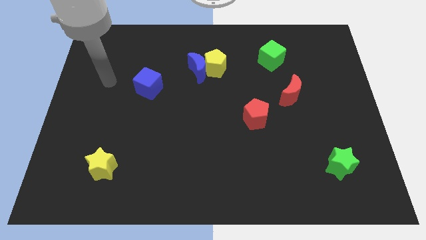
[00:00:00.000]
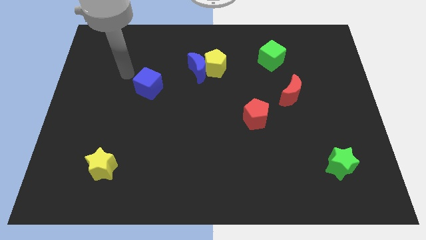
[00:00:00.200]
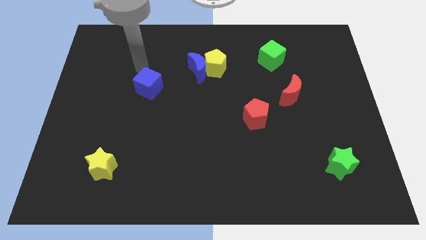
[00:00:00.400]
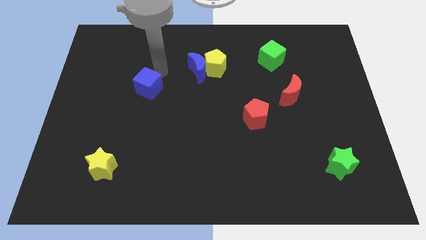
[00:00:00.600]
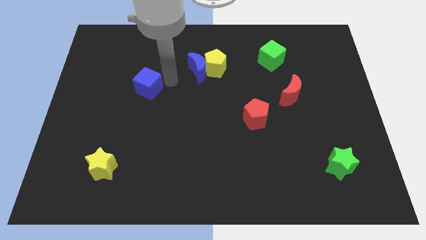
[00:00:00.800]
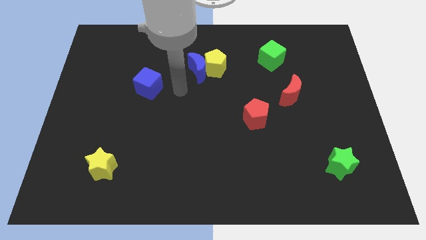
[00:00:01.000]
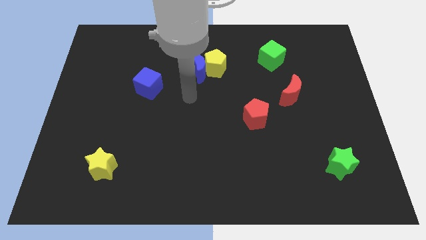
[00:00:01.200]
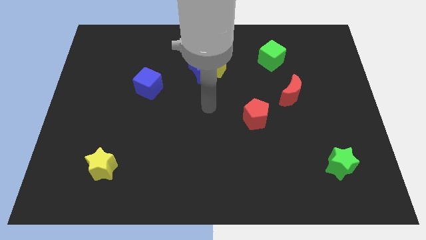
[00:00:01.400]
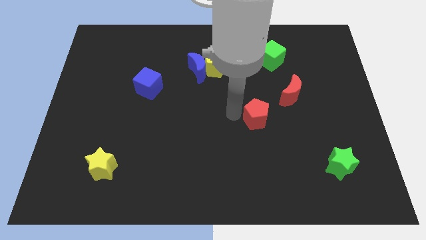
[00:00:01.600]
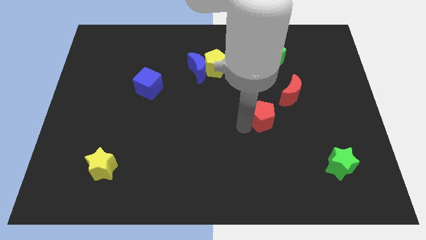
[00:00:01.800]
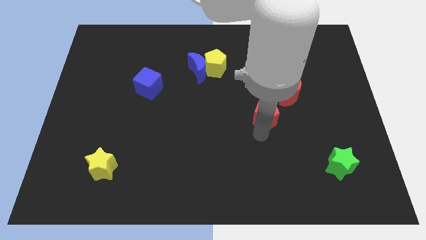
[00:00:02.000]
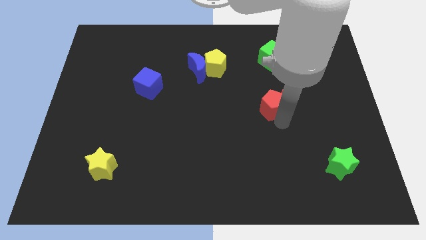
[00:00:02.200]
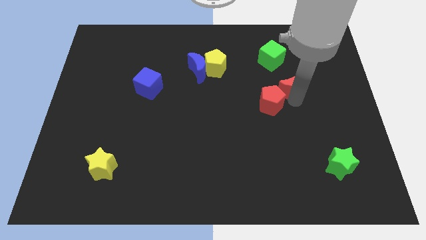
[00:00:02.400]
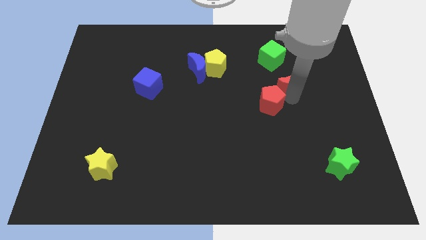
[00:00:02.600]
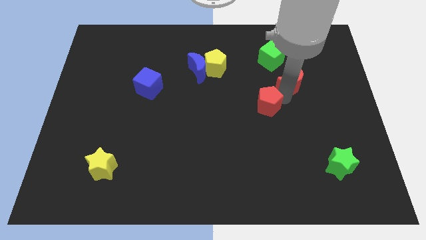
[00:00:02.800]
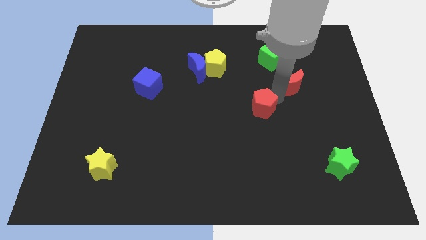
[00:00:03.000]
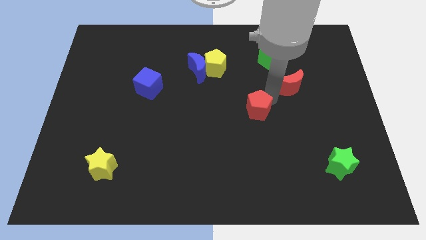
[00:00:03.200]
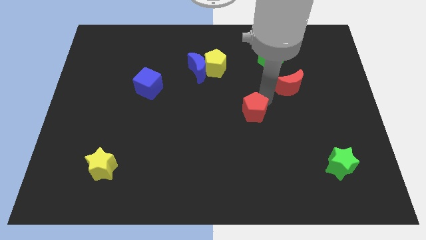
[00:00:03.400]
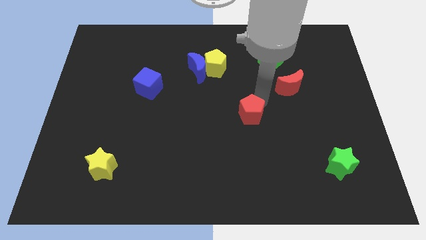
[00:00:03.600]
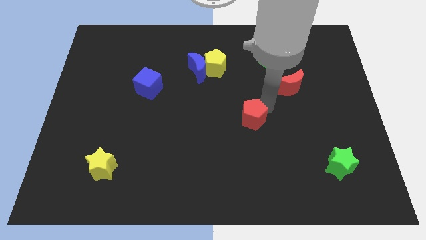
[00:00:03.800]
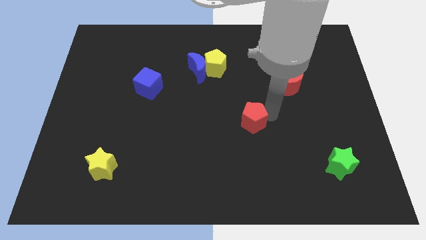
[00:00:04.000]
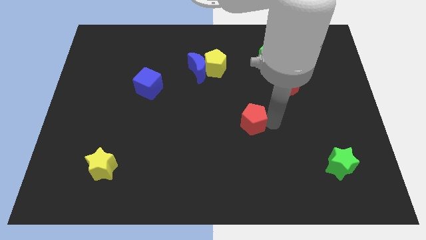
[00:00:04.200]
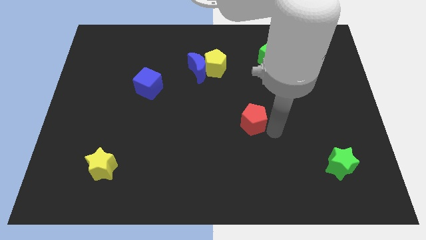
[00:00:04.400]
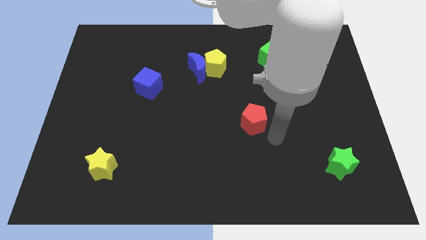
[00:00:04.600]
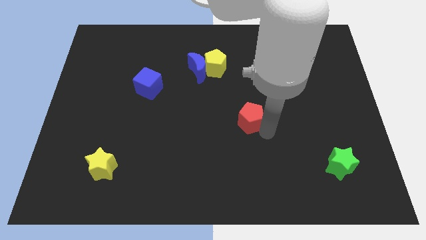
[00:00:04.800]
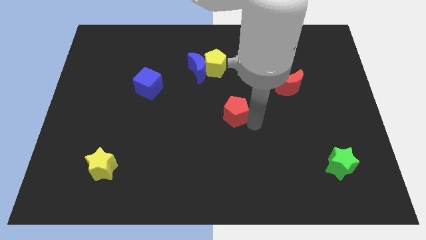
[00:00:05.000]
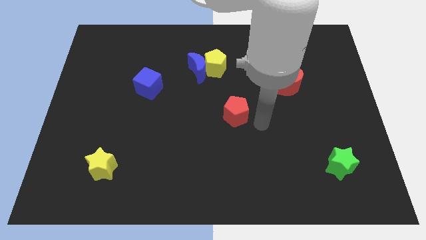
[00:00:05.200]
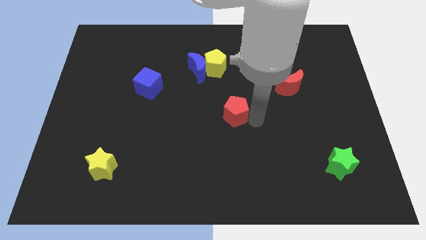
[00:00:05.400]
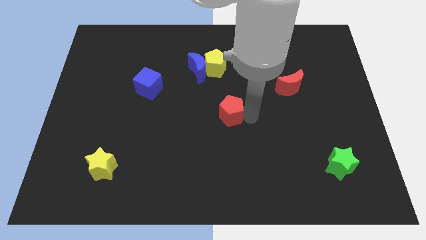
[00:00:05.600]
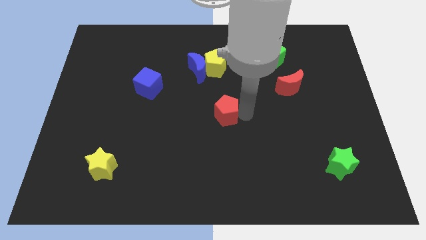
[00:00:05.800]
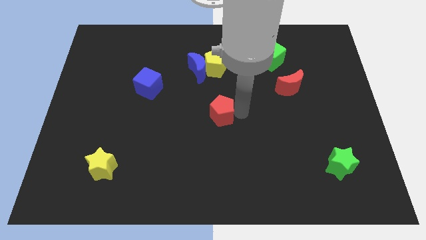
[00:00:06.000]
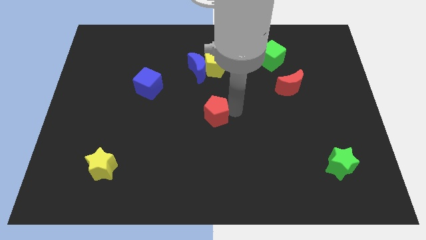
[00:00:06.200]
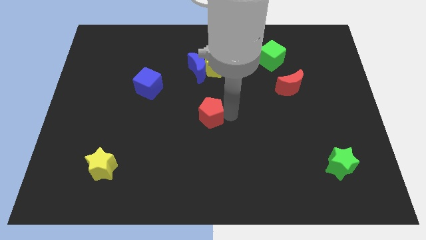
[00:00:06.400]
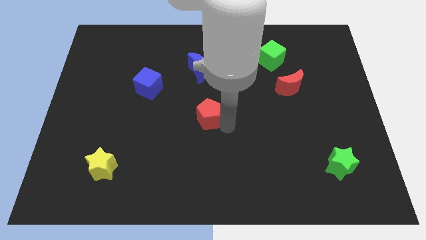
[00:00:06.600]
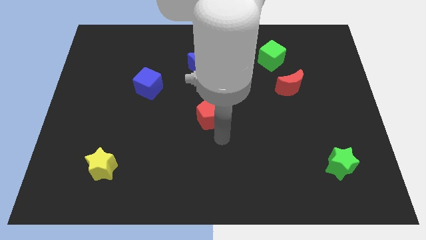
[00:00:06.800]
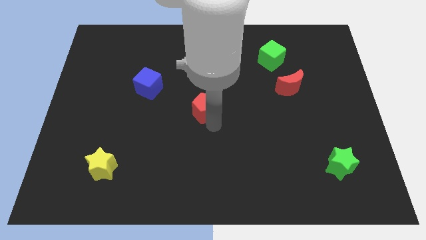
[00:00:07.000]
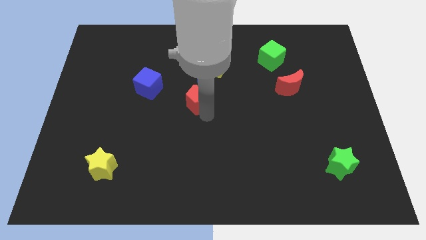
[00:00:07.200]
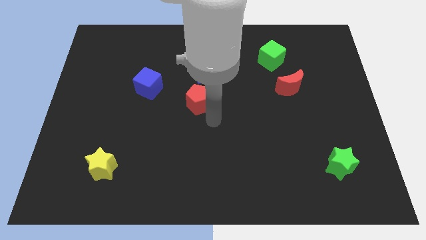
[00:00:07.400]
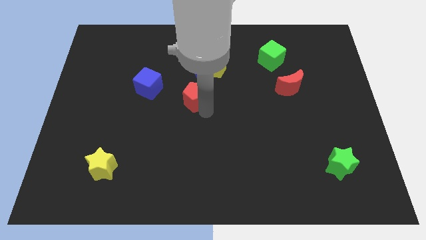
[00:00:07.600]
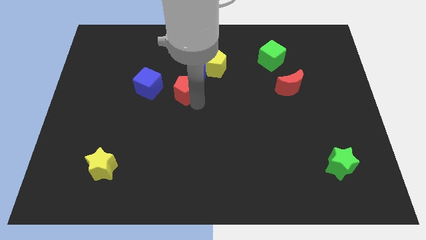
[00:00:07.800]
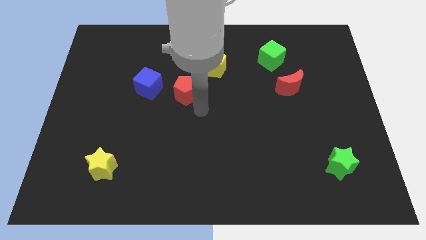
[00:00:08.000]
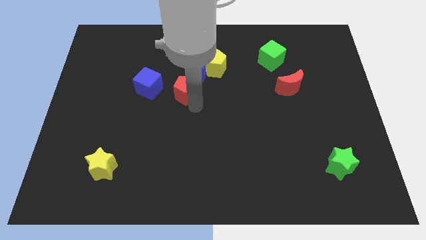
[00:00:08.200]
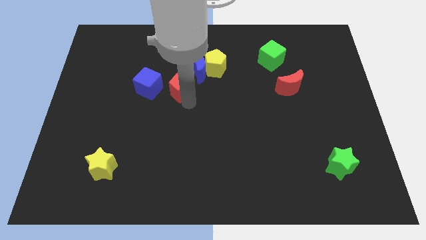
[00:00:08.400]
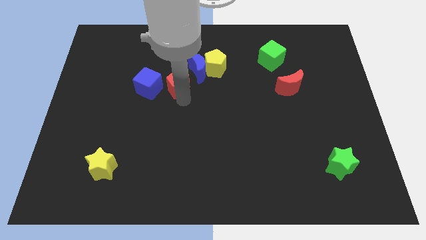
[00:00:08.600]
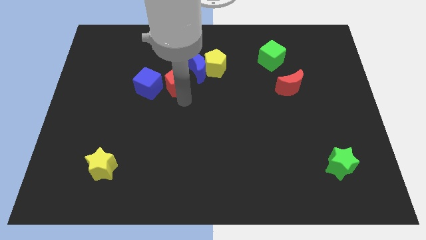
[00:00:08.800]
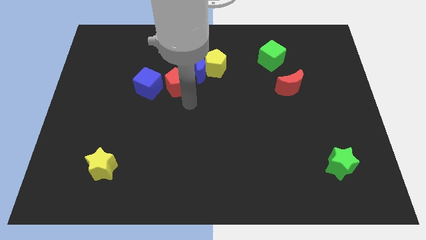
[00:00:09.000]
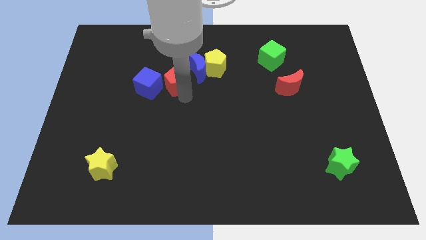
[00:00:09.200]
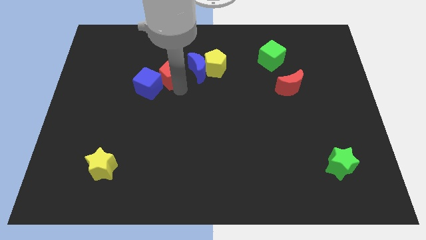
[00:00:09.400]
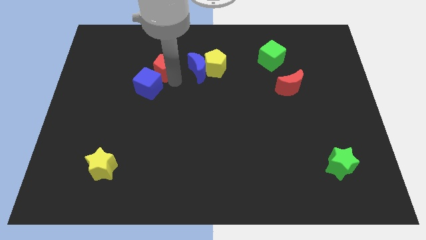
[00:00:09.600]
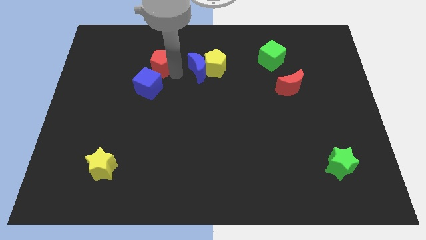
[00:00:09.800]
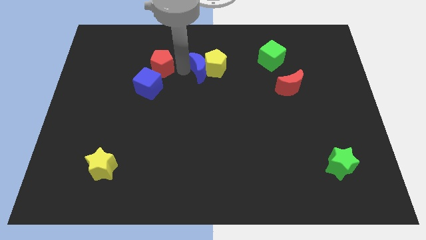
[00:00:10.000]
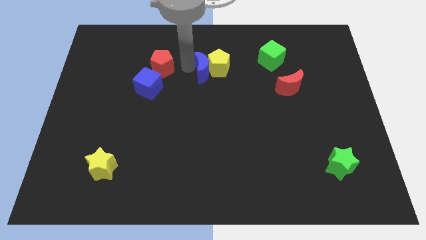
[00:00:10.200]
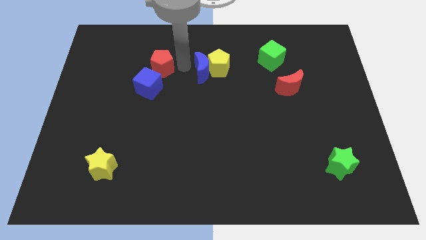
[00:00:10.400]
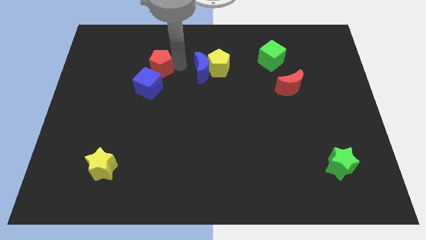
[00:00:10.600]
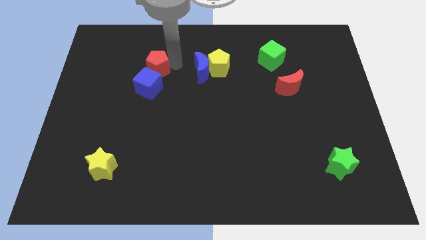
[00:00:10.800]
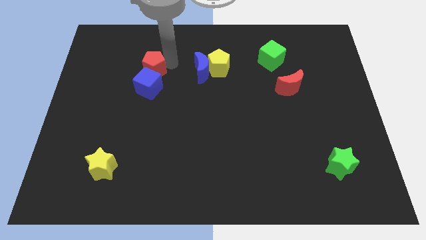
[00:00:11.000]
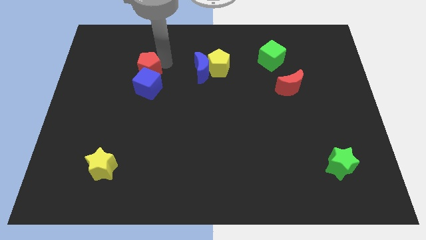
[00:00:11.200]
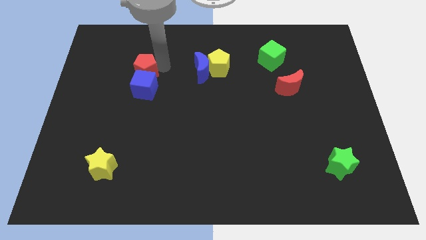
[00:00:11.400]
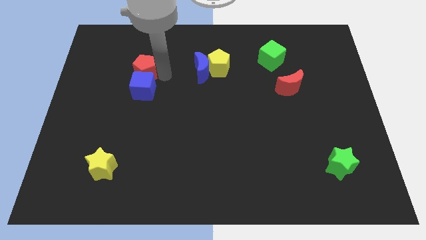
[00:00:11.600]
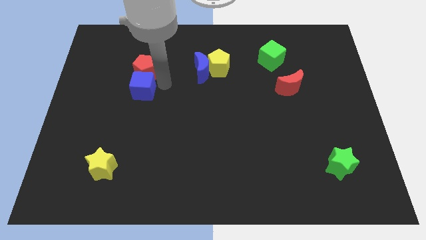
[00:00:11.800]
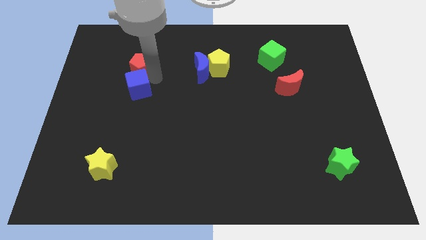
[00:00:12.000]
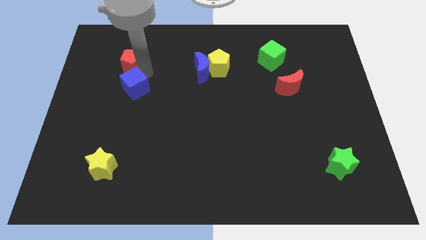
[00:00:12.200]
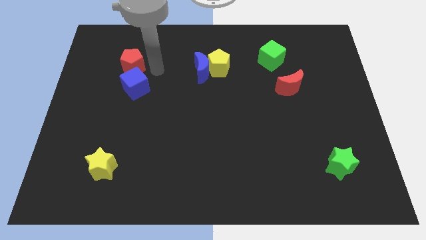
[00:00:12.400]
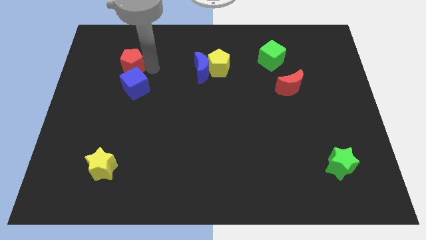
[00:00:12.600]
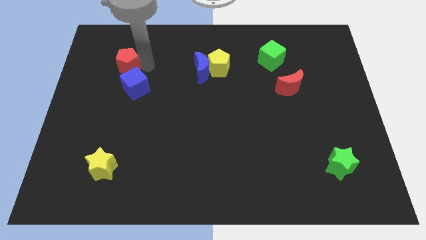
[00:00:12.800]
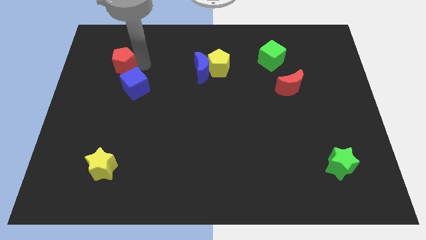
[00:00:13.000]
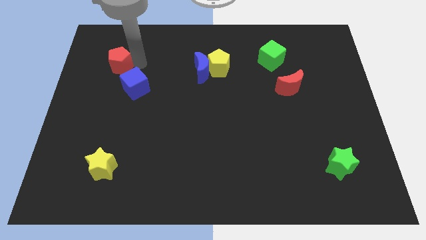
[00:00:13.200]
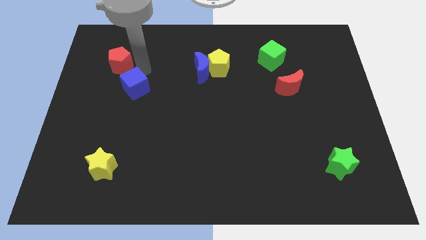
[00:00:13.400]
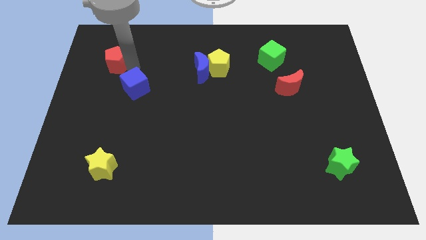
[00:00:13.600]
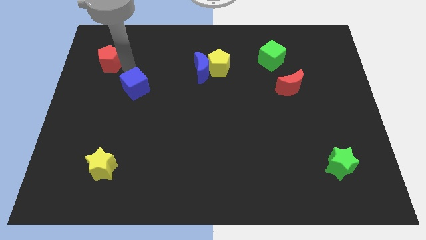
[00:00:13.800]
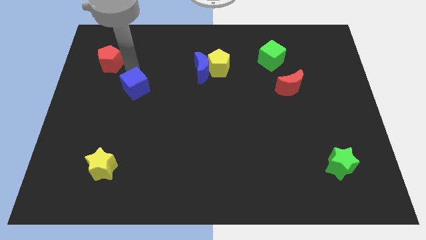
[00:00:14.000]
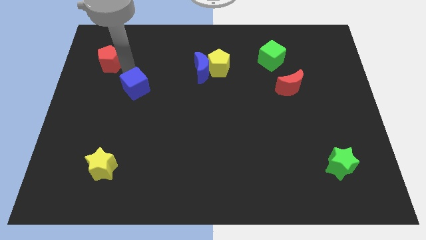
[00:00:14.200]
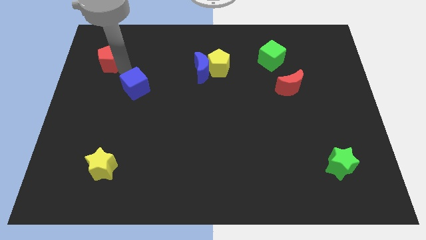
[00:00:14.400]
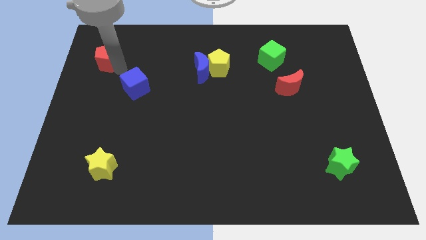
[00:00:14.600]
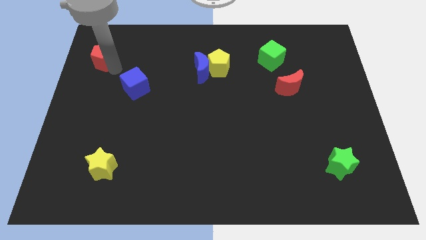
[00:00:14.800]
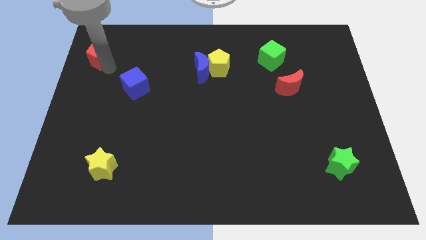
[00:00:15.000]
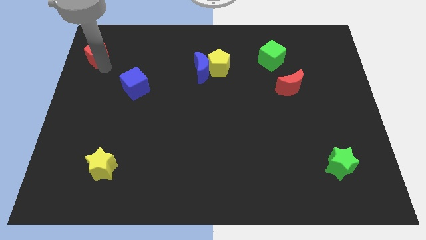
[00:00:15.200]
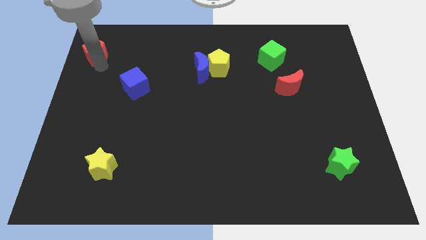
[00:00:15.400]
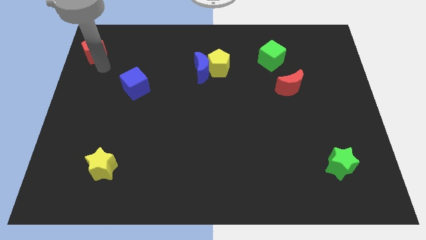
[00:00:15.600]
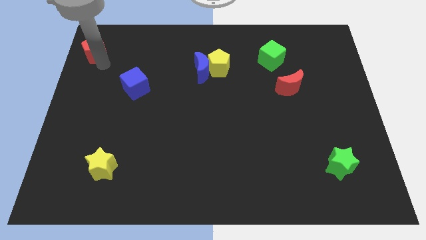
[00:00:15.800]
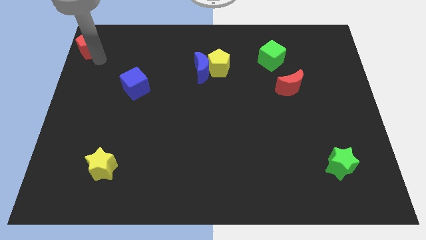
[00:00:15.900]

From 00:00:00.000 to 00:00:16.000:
put the red pentagon to the top left of the board
